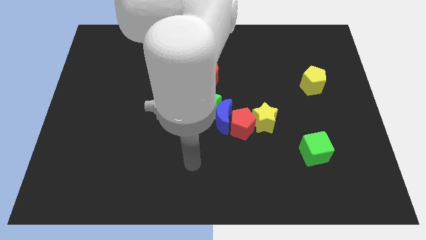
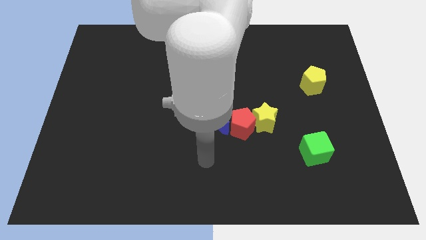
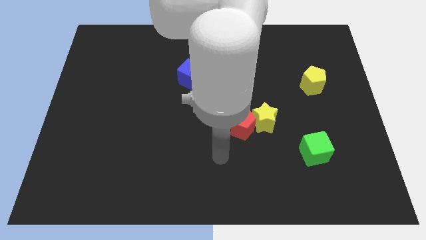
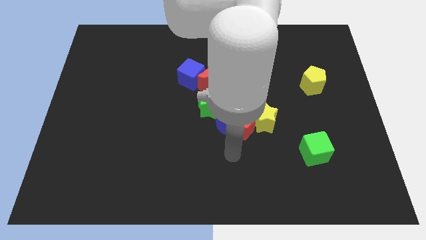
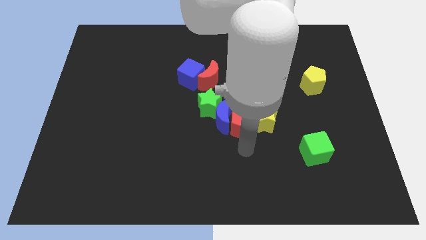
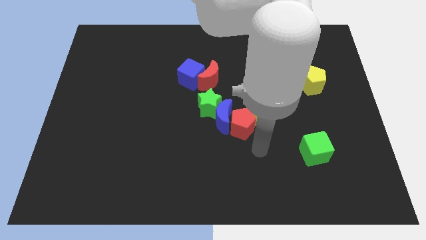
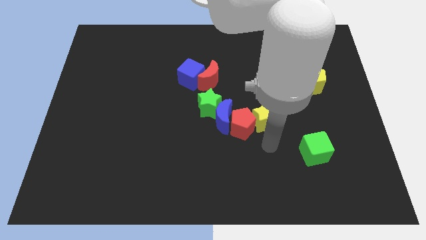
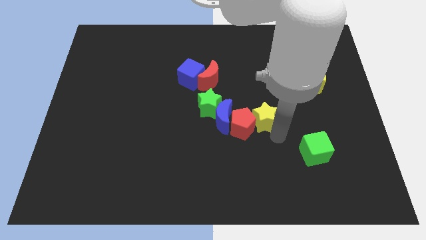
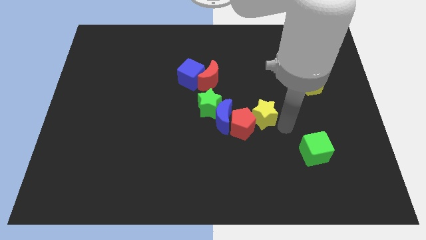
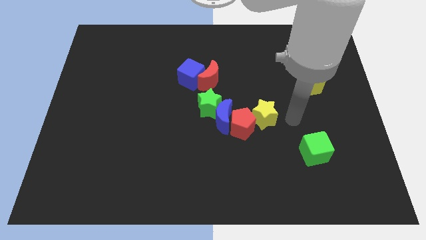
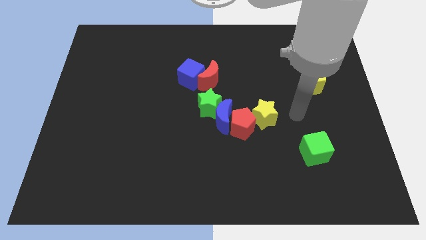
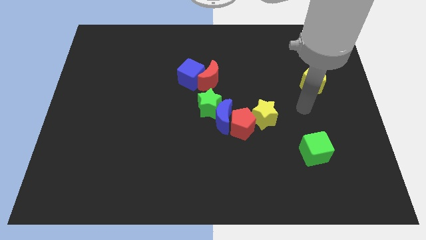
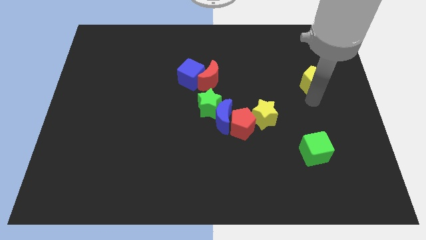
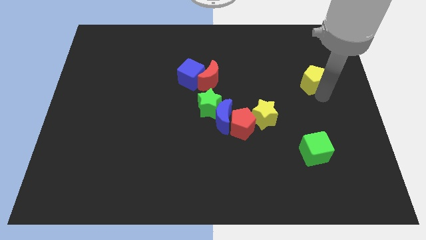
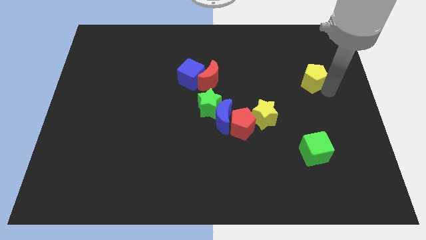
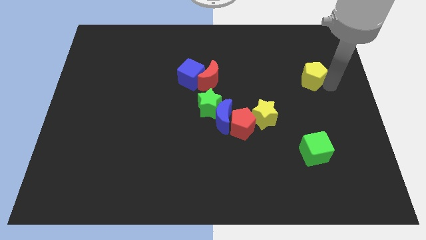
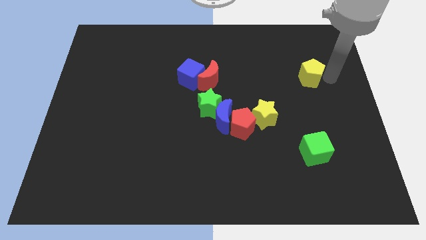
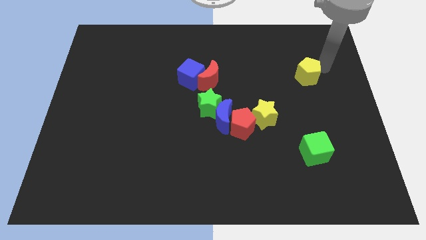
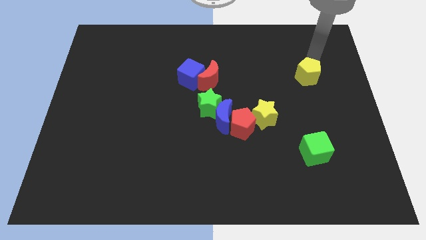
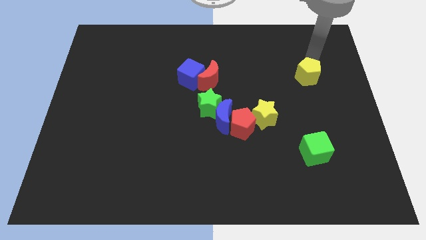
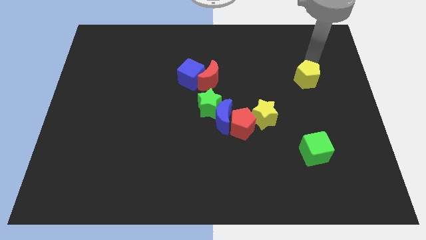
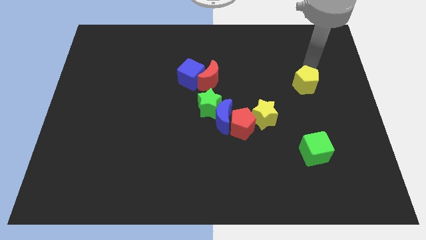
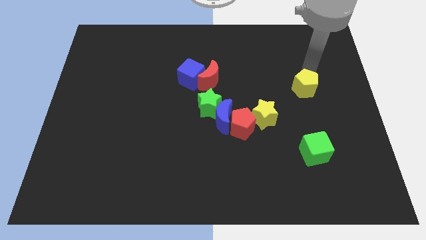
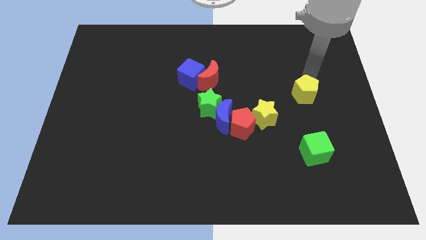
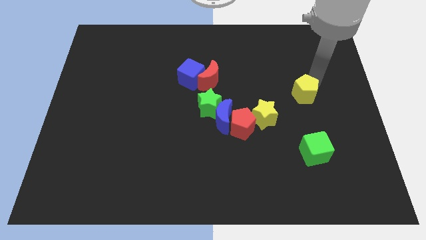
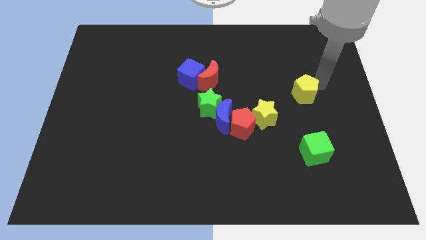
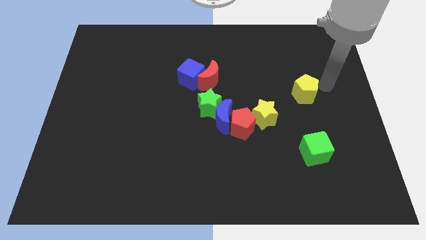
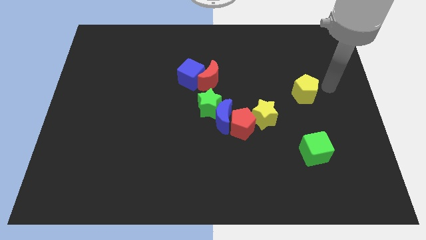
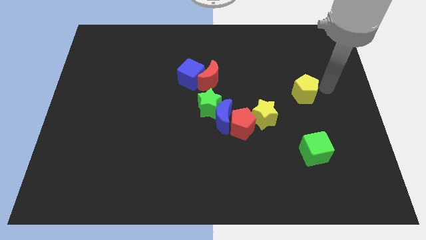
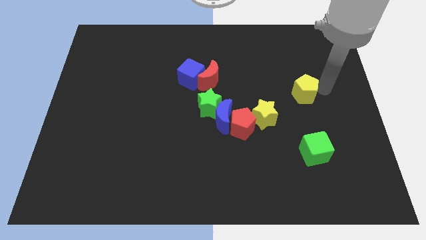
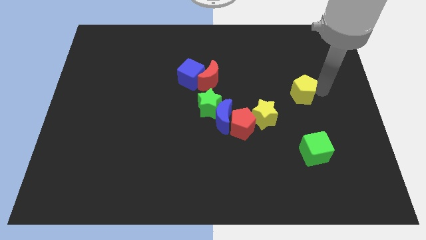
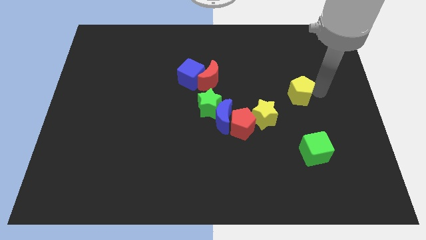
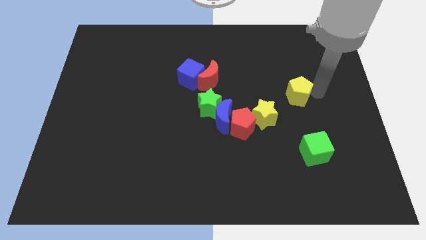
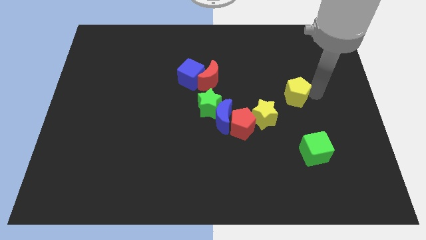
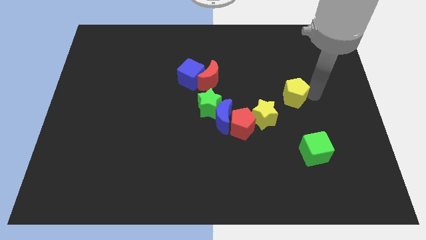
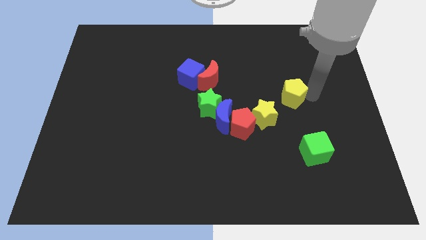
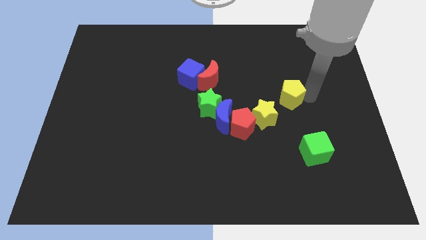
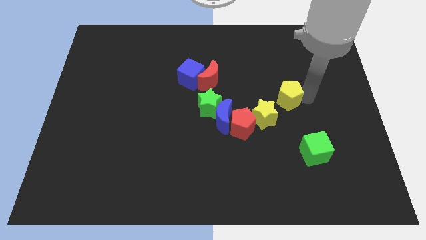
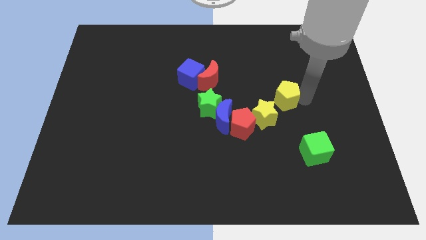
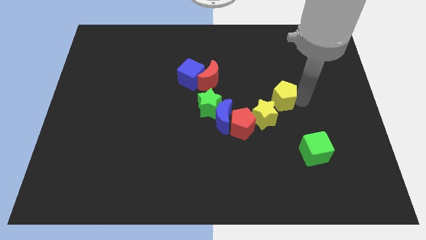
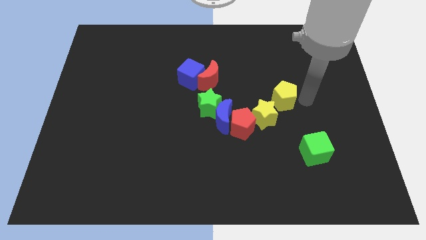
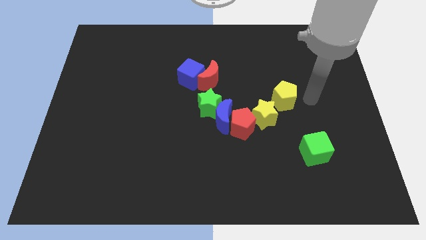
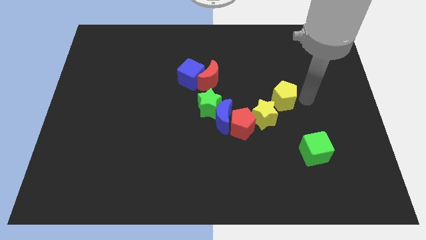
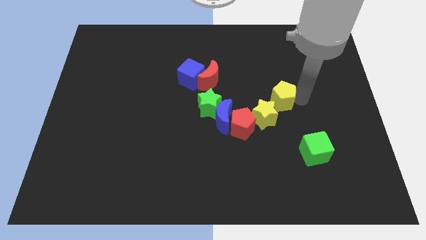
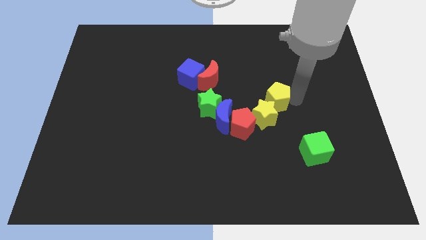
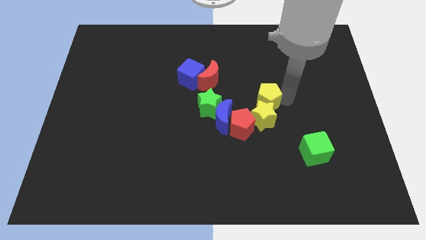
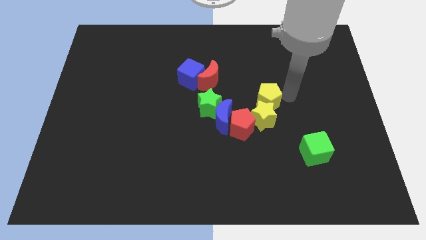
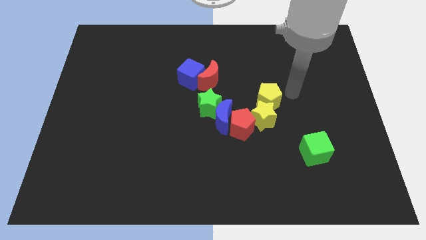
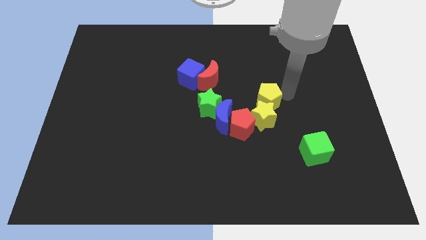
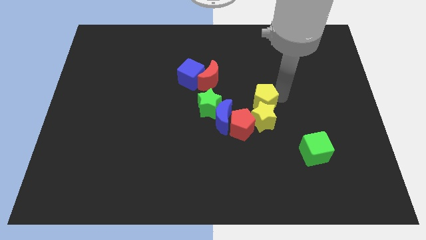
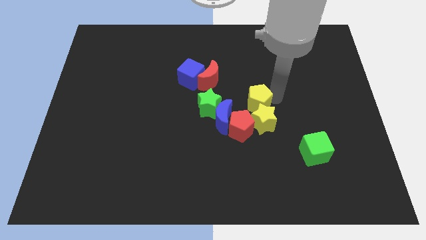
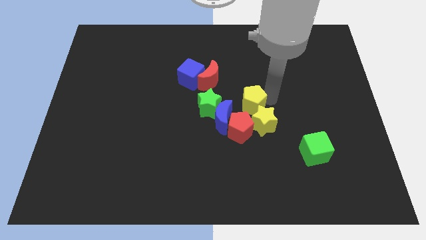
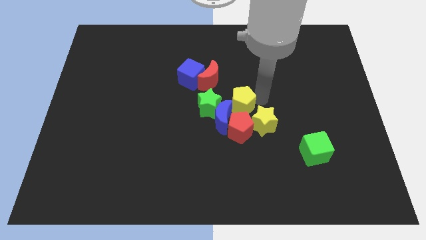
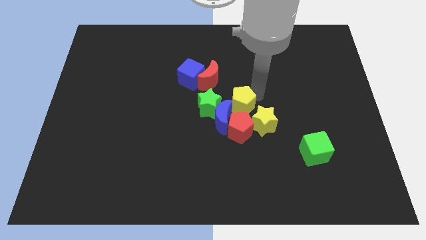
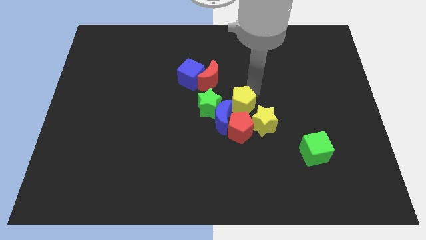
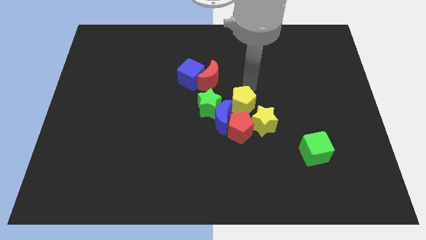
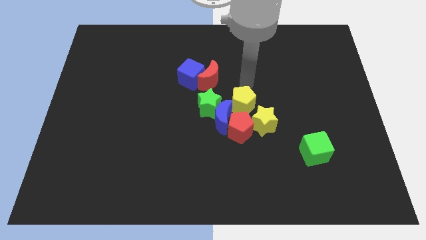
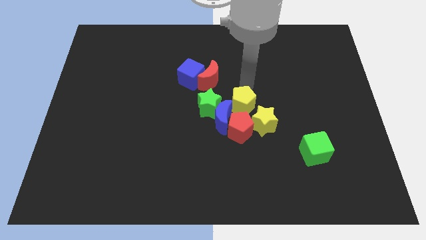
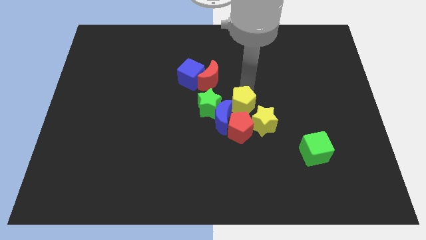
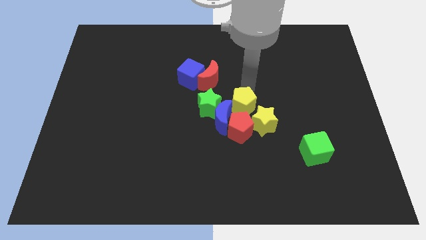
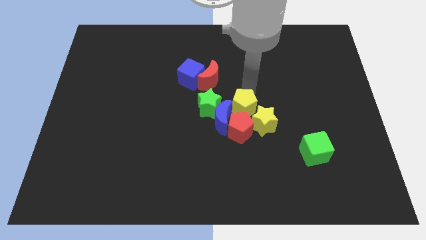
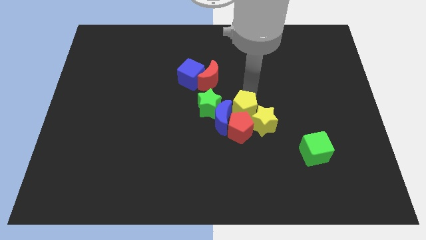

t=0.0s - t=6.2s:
slide the yellow pentagon towards the red pentagon

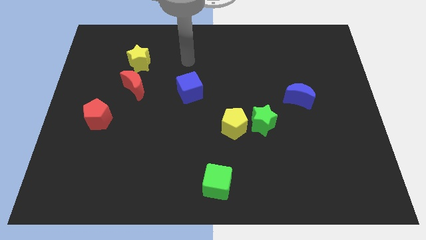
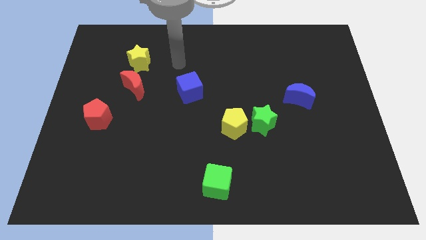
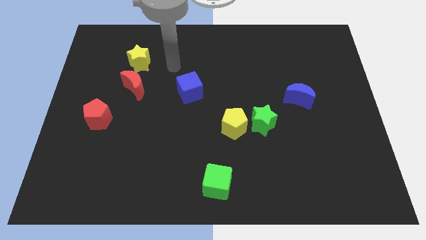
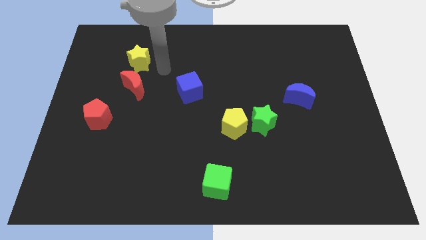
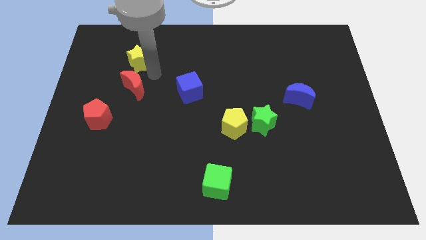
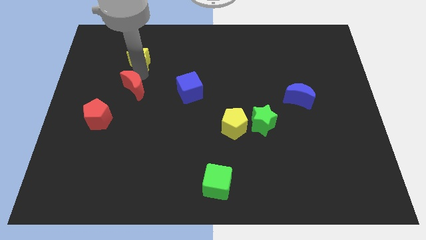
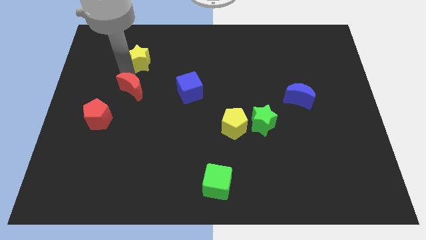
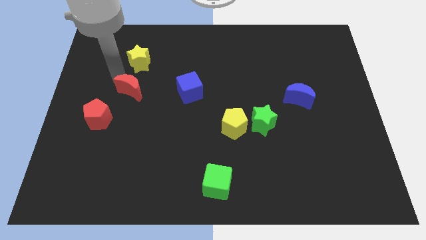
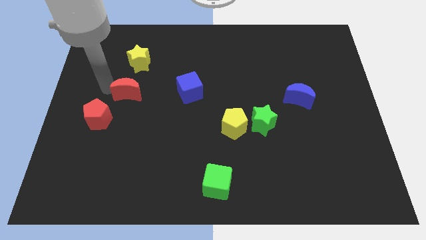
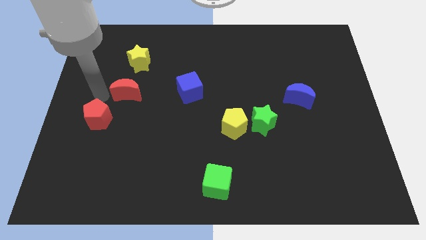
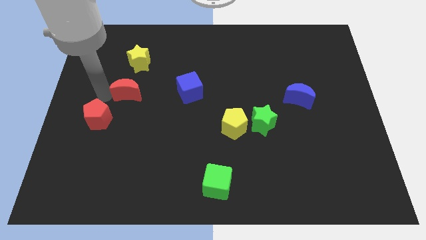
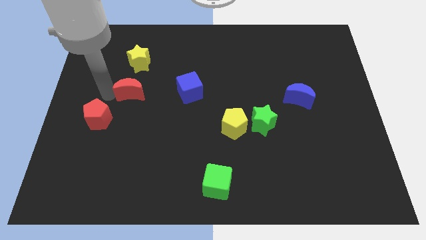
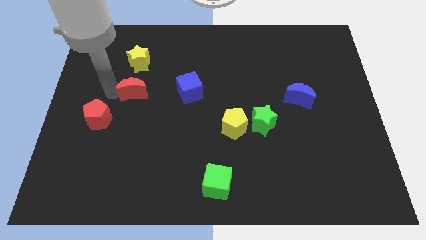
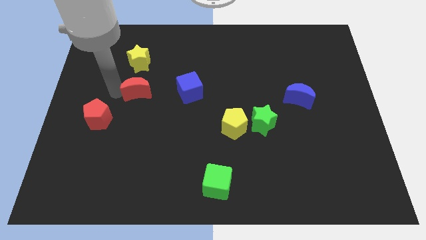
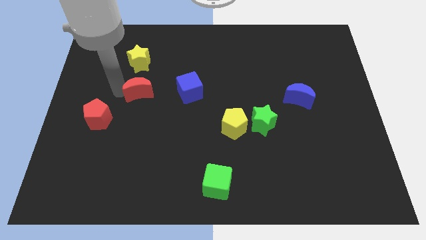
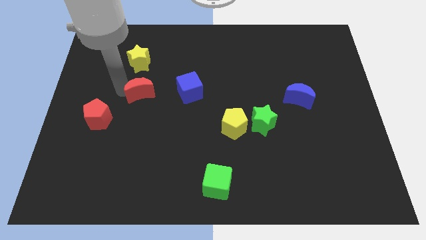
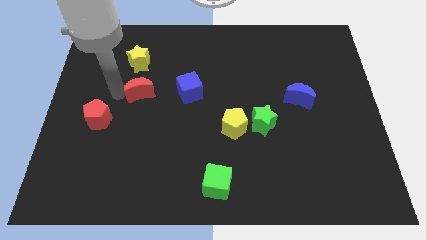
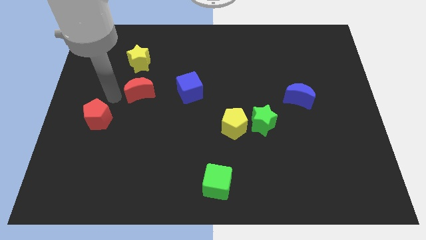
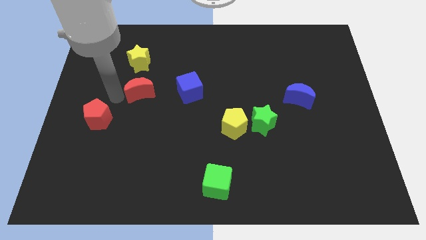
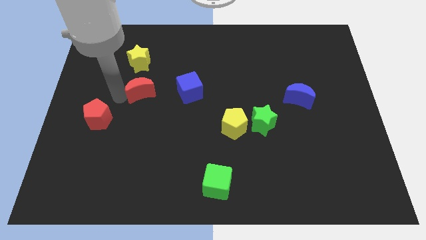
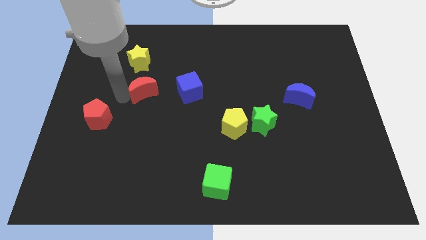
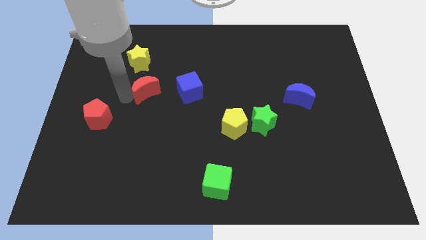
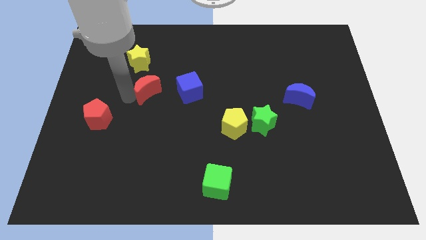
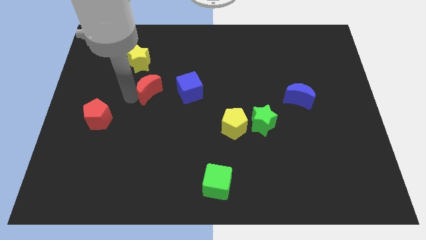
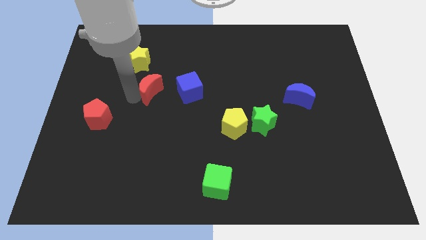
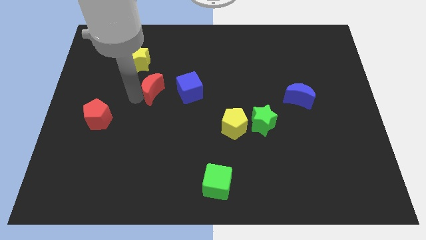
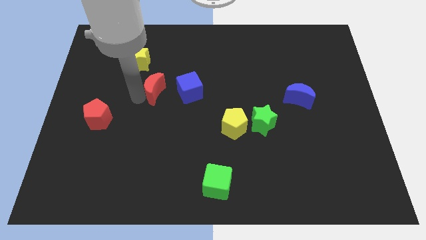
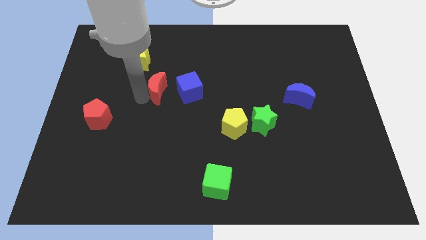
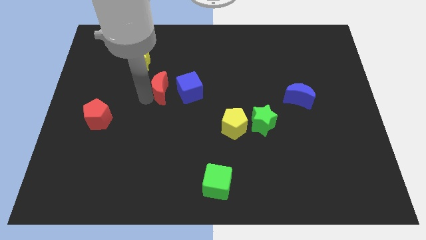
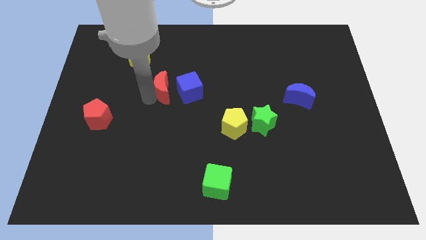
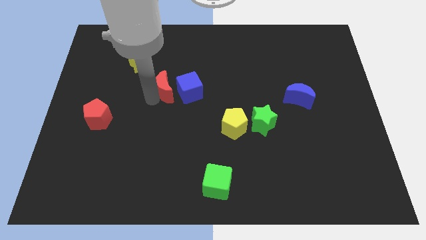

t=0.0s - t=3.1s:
push the red moon close to the blue cube
